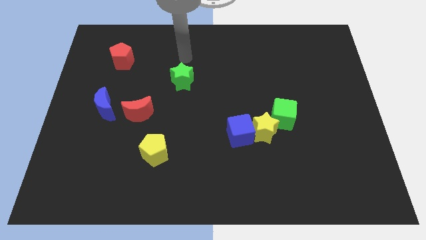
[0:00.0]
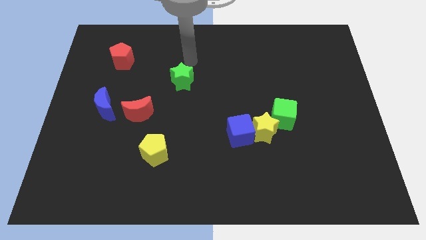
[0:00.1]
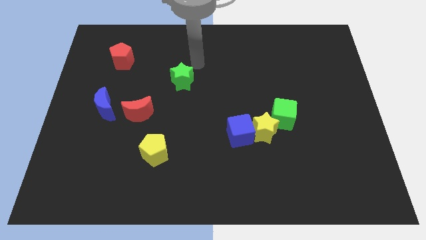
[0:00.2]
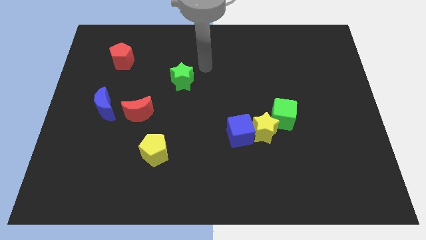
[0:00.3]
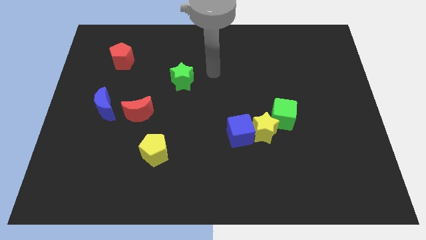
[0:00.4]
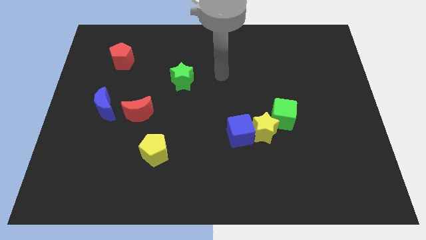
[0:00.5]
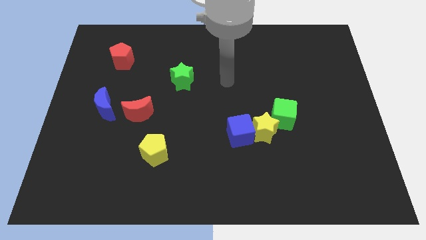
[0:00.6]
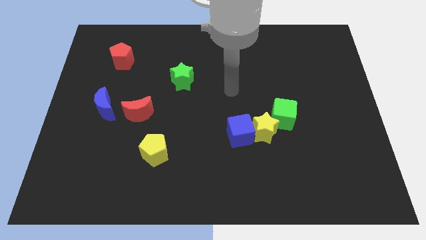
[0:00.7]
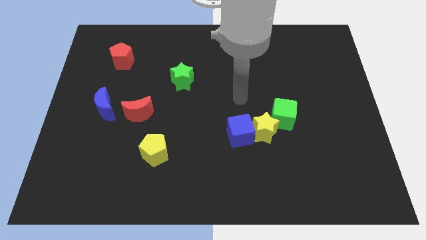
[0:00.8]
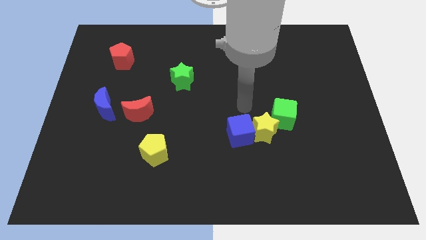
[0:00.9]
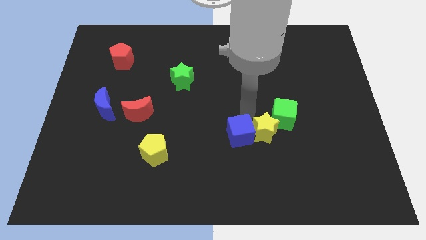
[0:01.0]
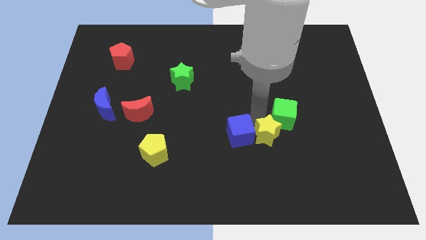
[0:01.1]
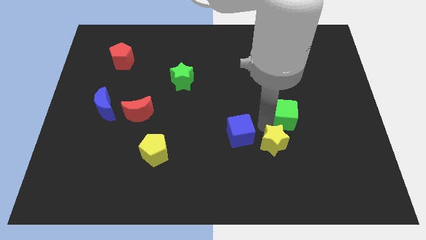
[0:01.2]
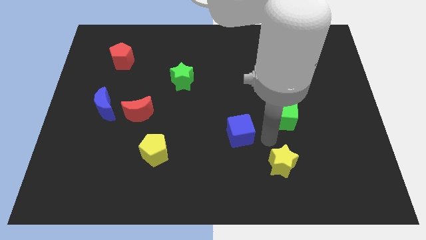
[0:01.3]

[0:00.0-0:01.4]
move the blue cube away from the yellow star

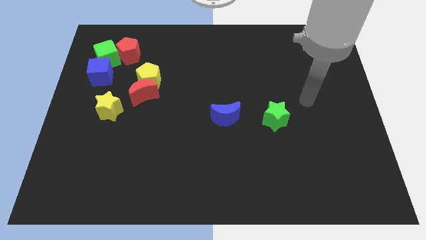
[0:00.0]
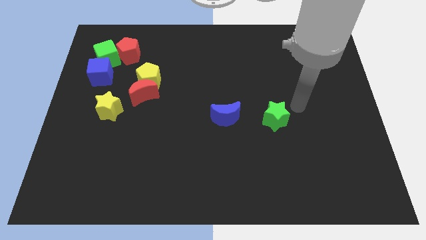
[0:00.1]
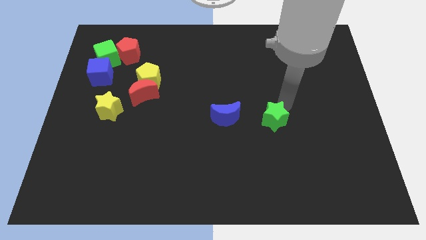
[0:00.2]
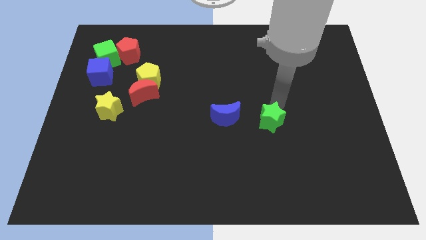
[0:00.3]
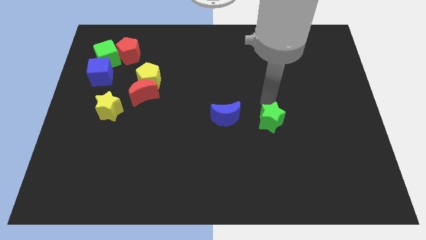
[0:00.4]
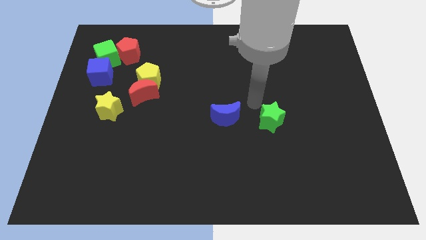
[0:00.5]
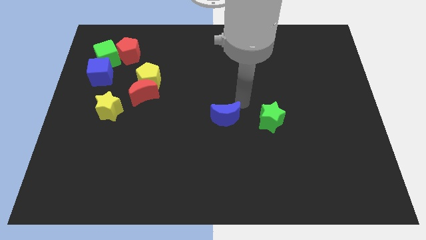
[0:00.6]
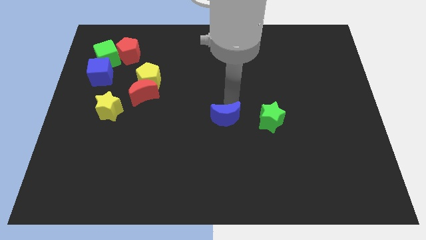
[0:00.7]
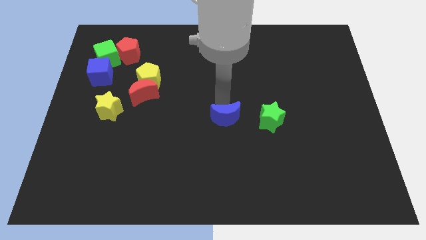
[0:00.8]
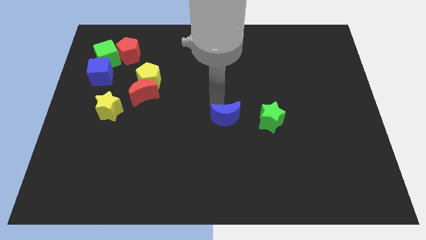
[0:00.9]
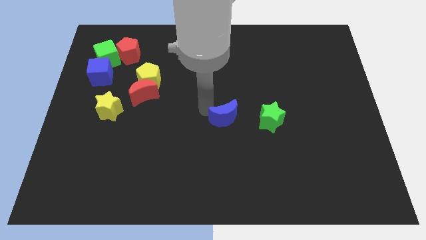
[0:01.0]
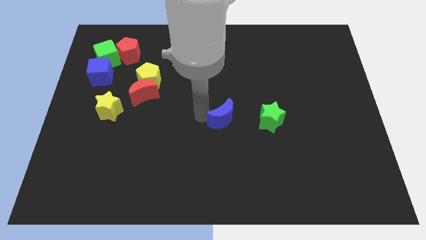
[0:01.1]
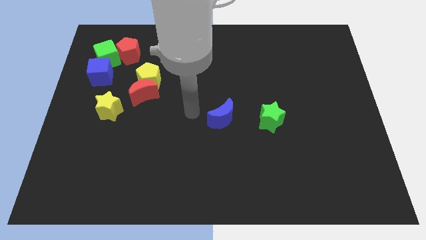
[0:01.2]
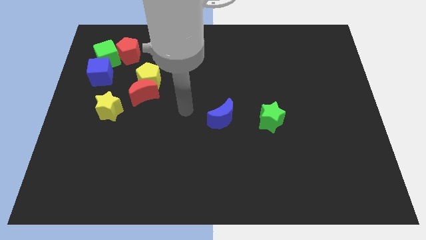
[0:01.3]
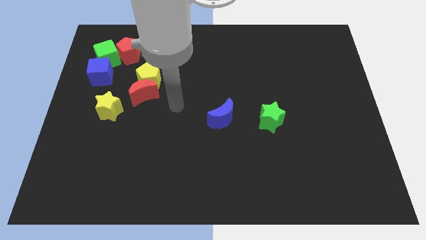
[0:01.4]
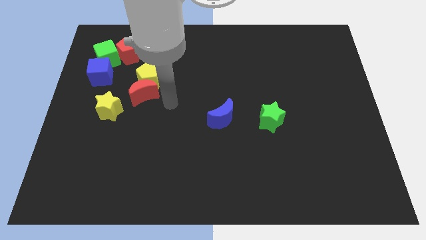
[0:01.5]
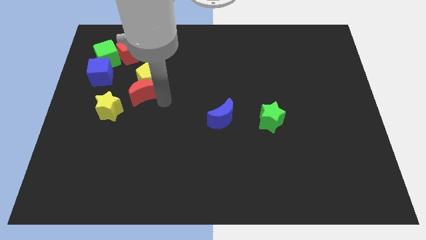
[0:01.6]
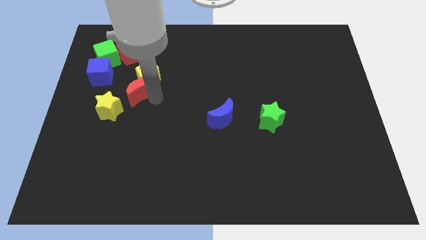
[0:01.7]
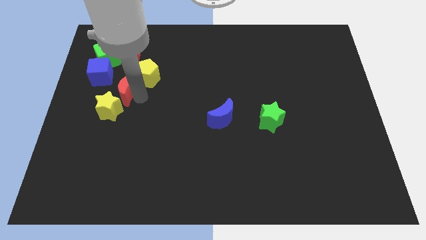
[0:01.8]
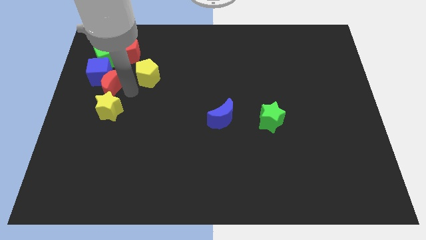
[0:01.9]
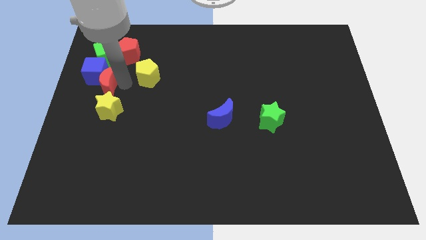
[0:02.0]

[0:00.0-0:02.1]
move the yellow pentagon away from the red moon

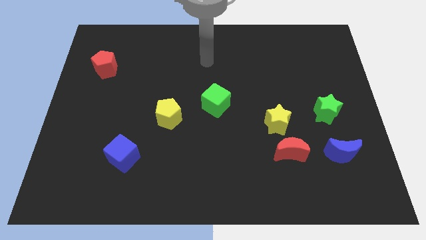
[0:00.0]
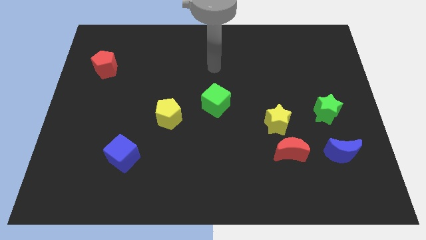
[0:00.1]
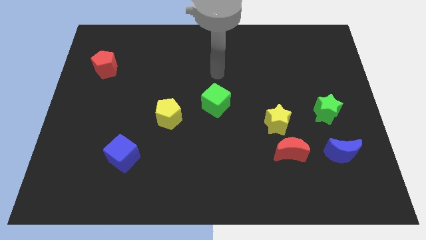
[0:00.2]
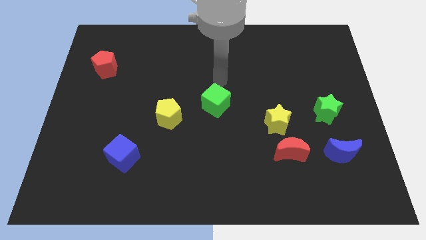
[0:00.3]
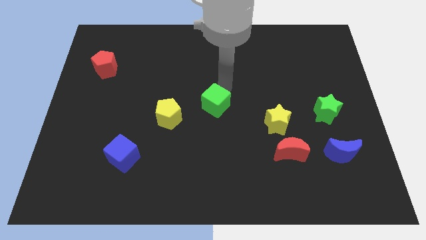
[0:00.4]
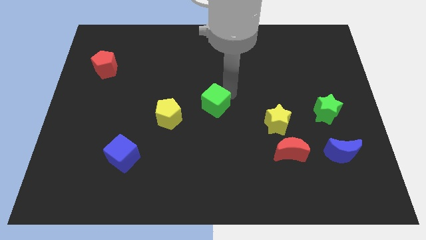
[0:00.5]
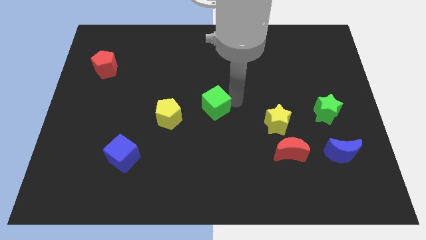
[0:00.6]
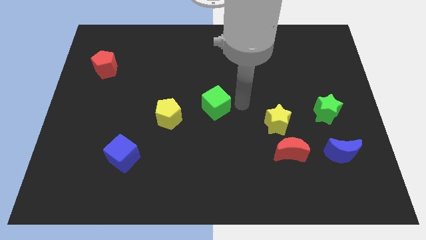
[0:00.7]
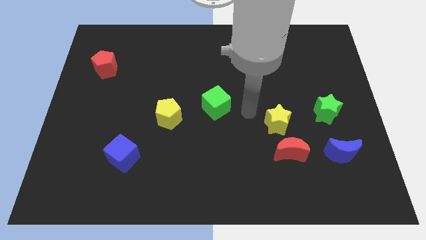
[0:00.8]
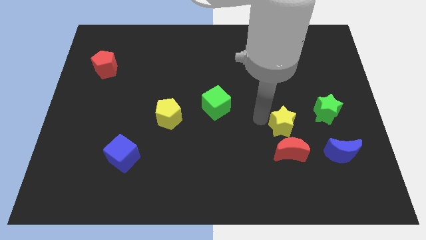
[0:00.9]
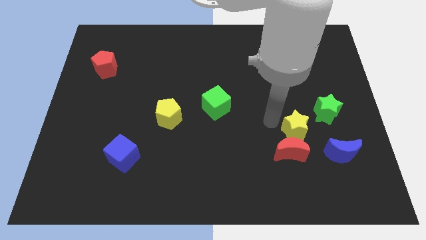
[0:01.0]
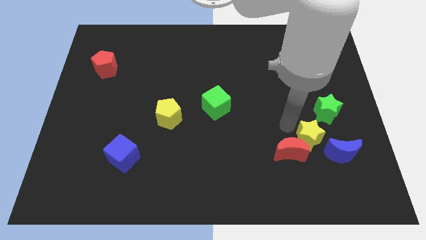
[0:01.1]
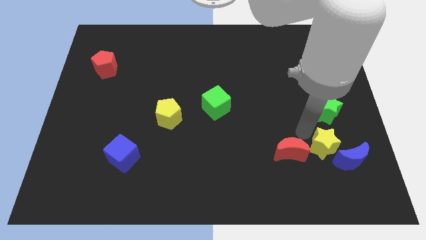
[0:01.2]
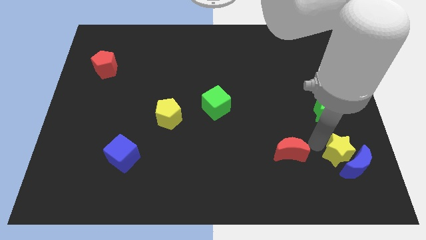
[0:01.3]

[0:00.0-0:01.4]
separate the red moon from the yellow star

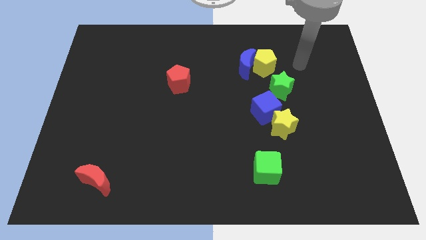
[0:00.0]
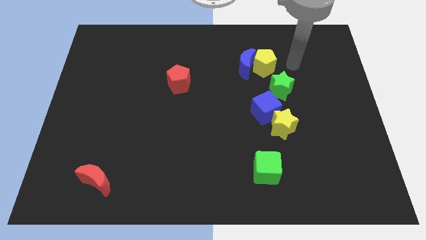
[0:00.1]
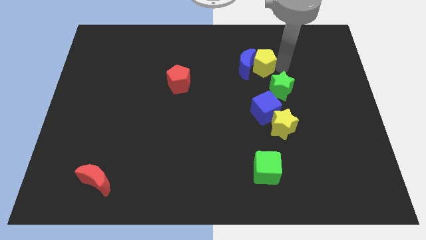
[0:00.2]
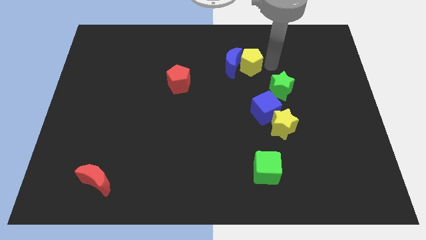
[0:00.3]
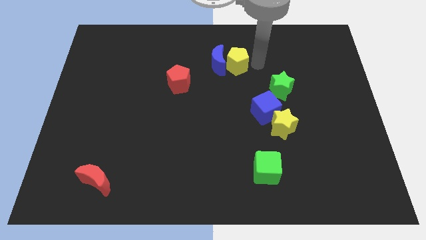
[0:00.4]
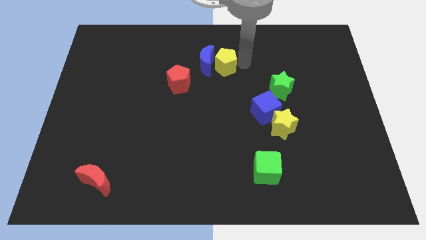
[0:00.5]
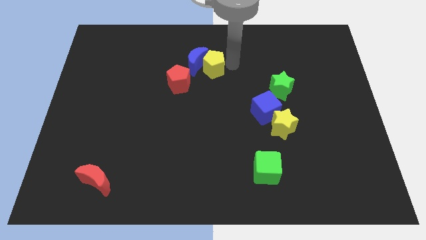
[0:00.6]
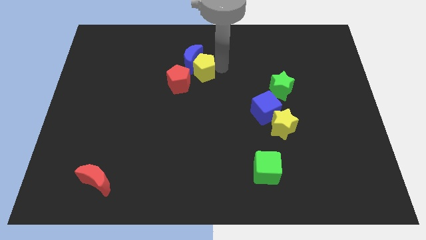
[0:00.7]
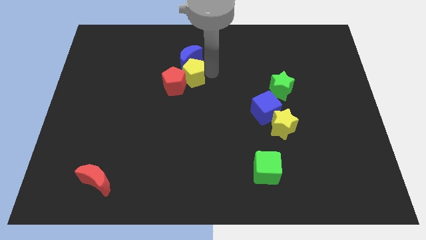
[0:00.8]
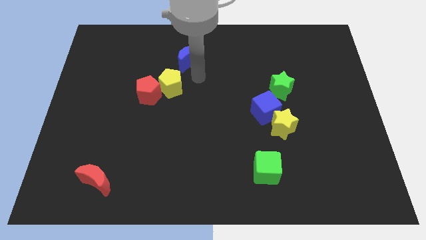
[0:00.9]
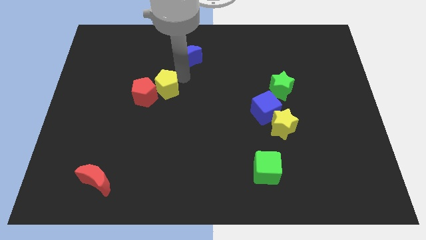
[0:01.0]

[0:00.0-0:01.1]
separate the blue moon from the yellow pentagon

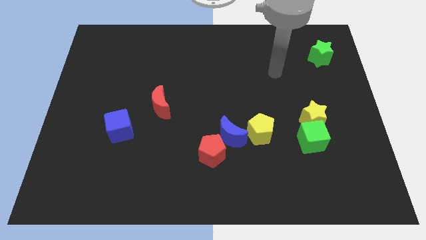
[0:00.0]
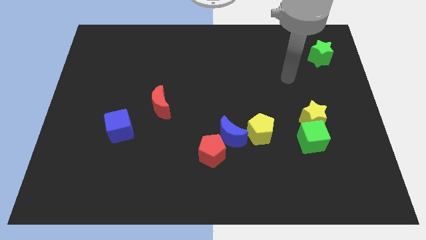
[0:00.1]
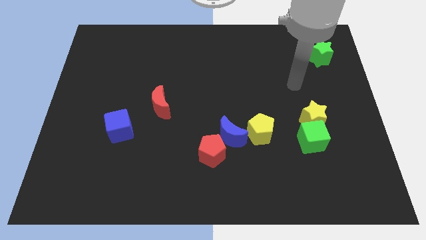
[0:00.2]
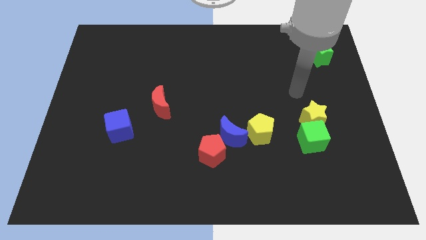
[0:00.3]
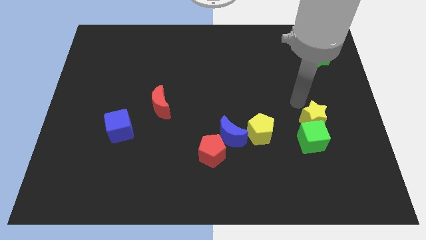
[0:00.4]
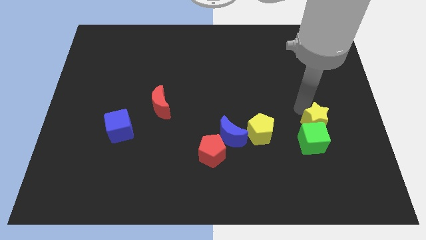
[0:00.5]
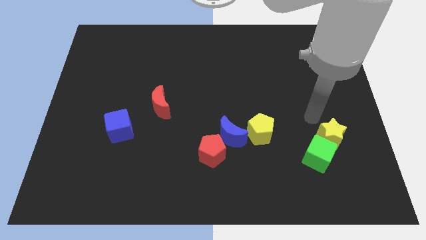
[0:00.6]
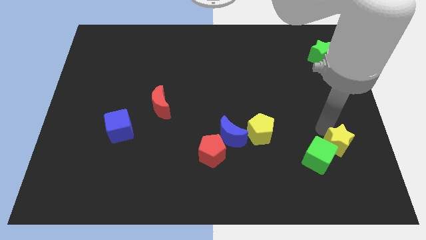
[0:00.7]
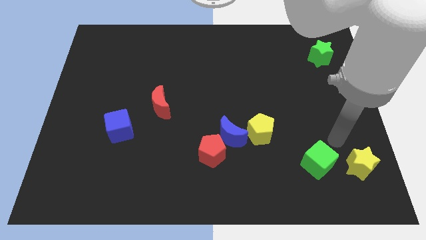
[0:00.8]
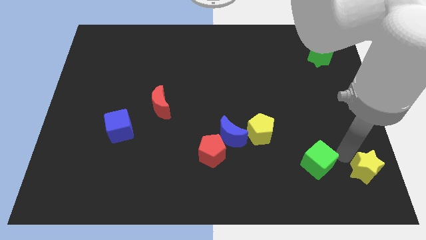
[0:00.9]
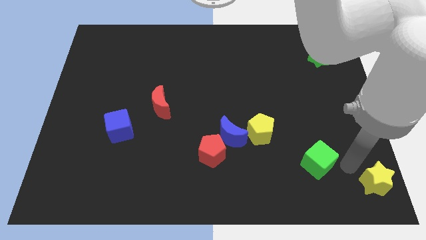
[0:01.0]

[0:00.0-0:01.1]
pull the green cube apart from the yellow star

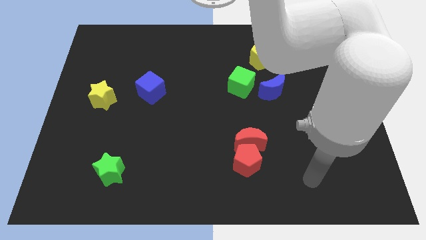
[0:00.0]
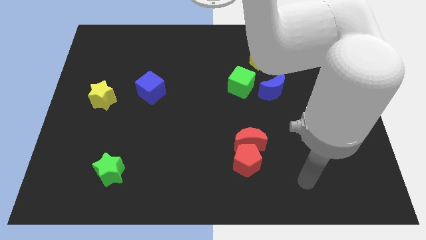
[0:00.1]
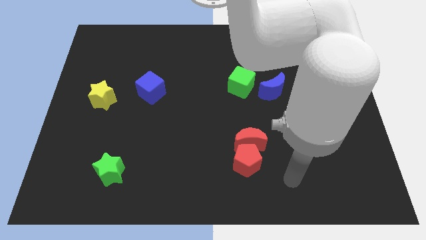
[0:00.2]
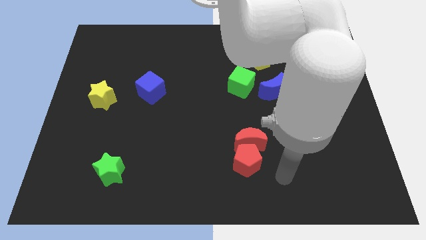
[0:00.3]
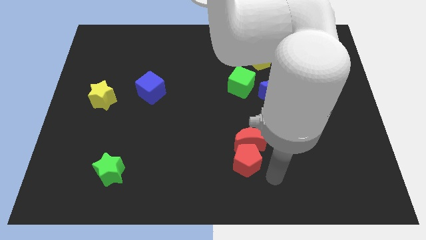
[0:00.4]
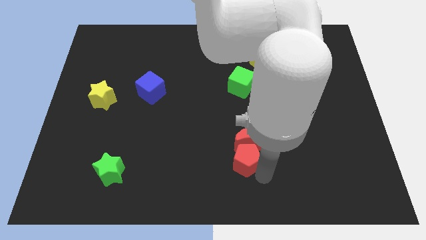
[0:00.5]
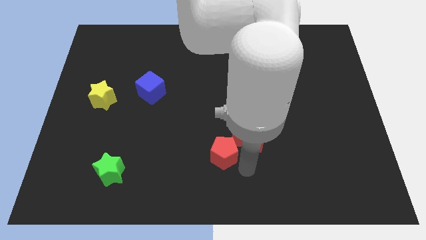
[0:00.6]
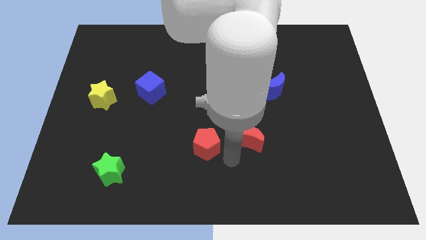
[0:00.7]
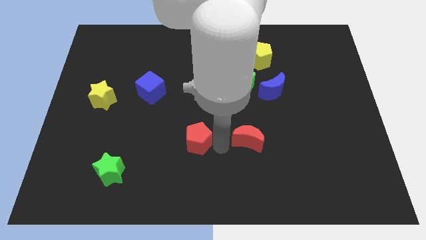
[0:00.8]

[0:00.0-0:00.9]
separate the red moon from the red pentagon

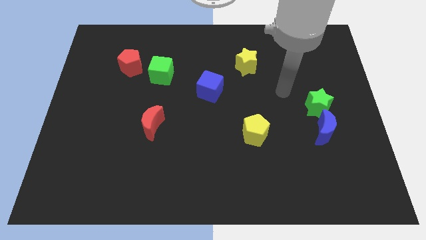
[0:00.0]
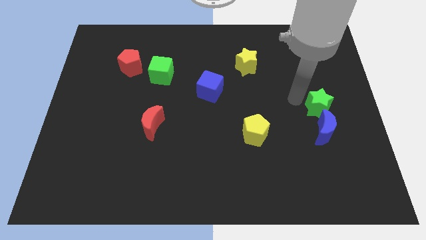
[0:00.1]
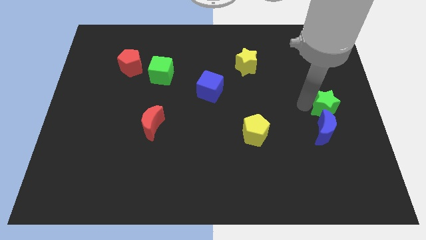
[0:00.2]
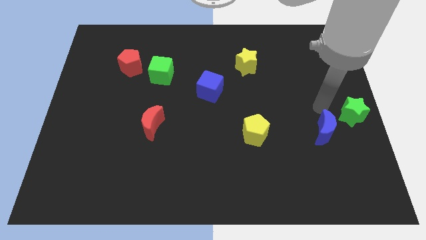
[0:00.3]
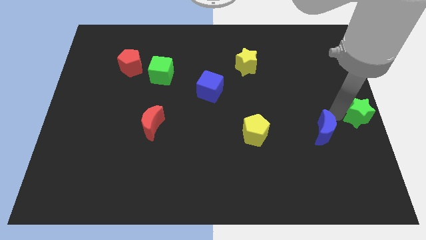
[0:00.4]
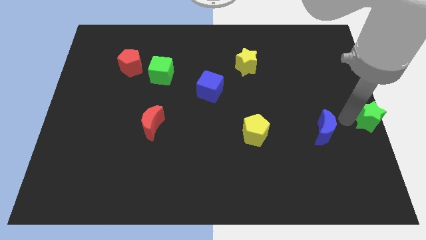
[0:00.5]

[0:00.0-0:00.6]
move the blue moon away from the green star

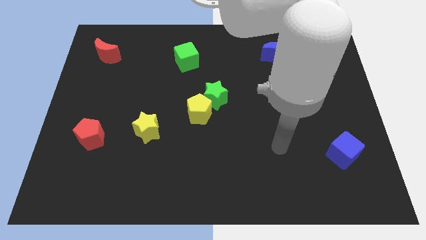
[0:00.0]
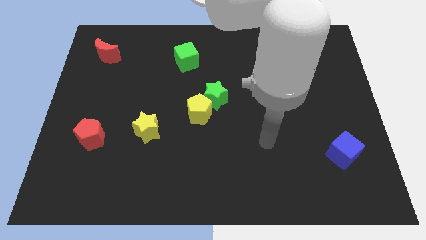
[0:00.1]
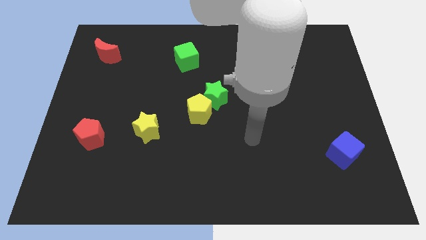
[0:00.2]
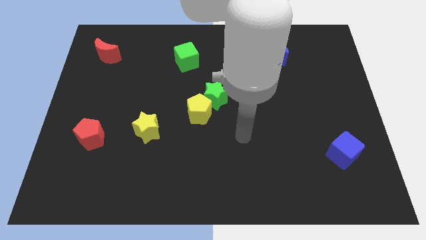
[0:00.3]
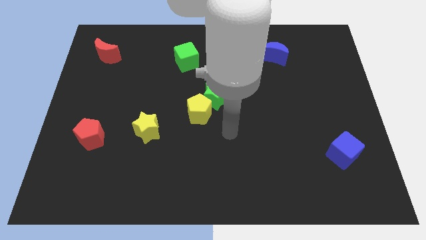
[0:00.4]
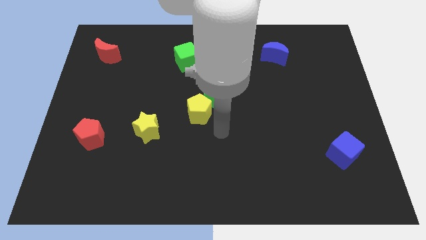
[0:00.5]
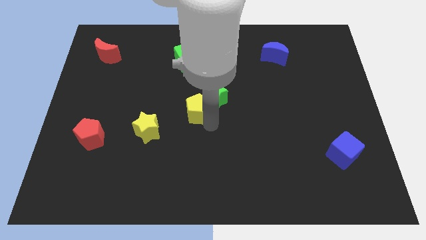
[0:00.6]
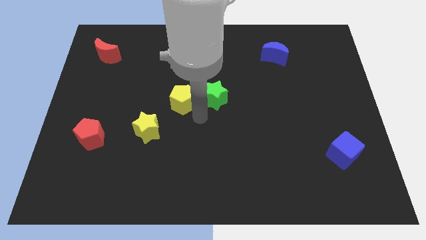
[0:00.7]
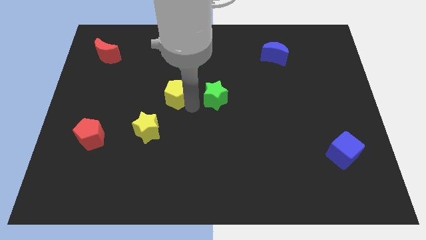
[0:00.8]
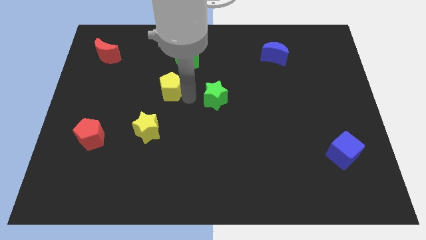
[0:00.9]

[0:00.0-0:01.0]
move the green star away from the yellow pentagon
